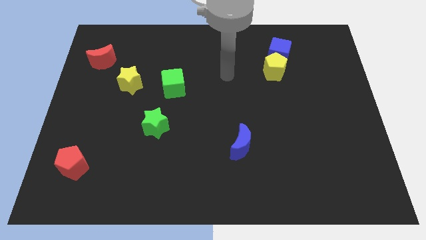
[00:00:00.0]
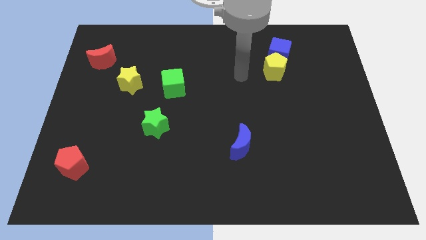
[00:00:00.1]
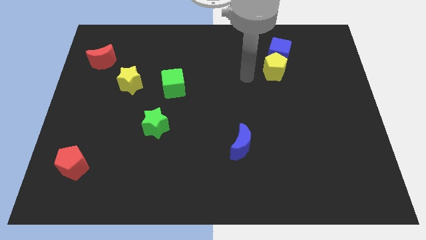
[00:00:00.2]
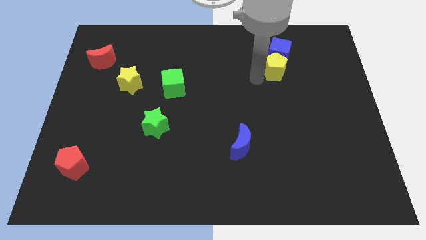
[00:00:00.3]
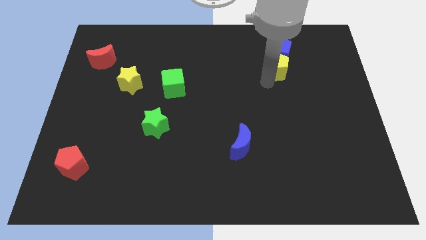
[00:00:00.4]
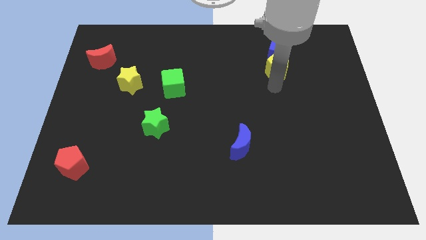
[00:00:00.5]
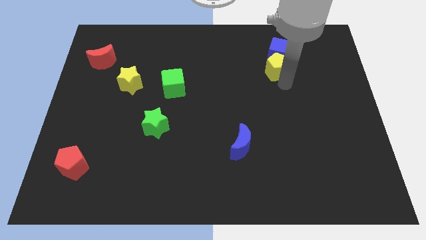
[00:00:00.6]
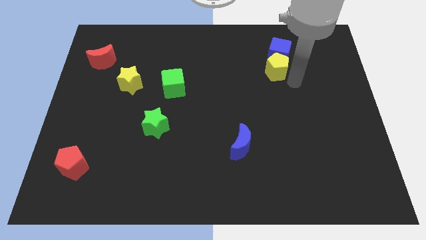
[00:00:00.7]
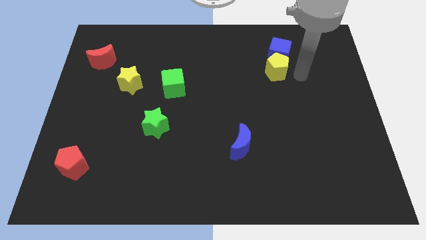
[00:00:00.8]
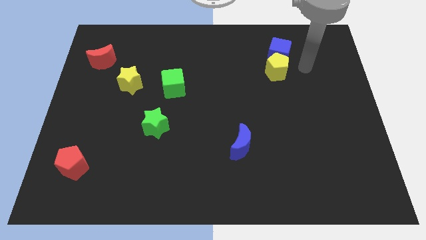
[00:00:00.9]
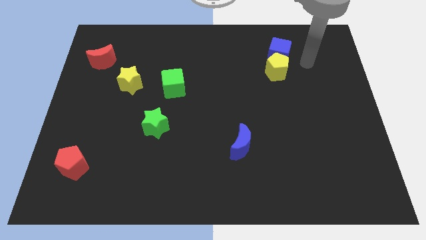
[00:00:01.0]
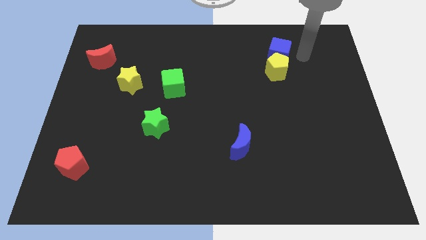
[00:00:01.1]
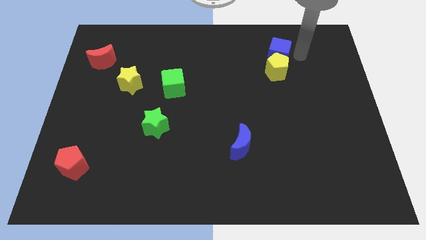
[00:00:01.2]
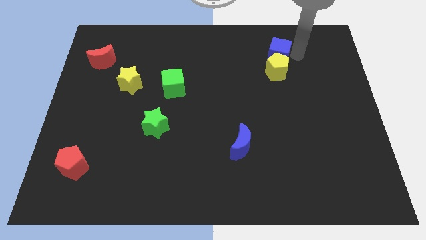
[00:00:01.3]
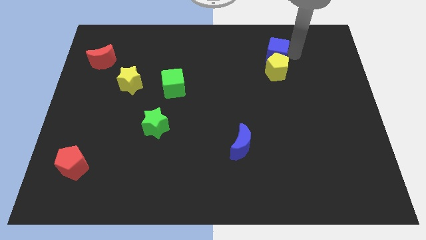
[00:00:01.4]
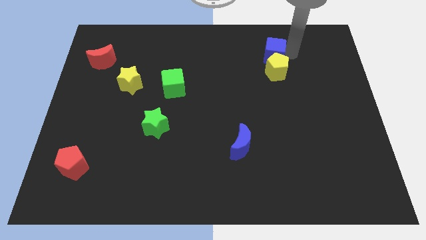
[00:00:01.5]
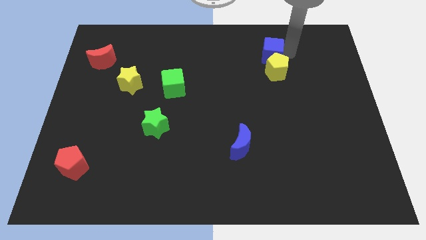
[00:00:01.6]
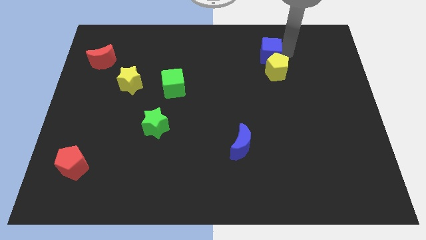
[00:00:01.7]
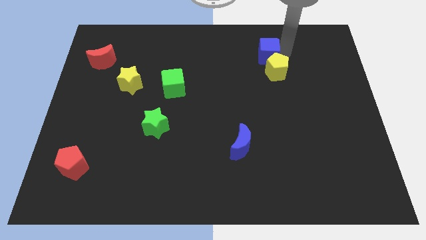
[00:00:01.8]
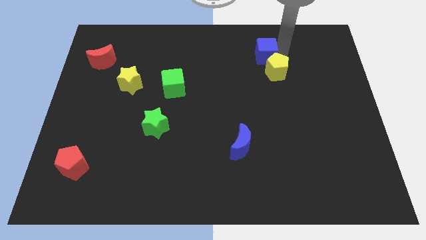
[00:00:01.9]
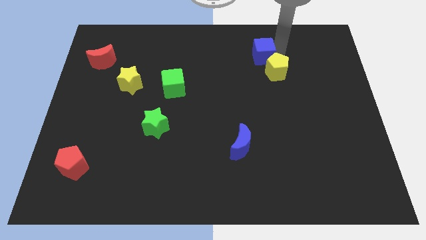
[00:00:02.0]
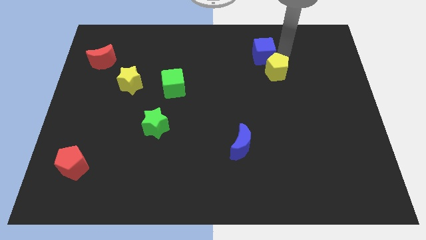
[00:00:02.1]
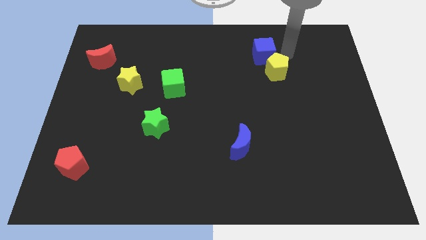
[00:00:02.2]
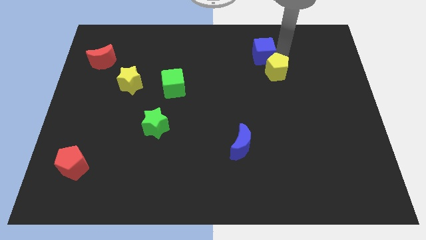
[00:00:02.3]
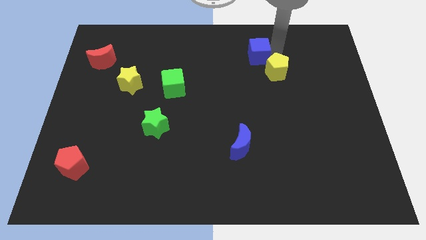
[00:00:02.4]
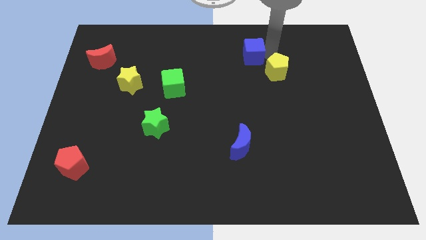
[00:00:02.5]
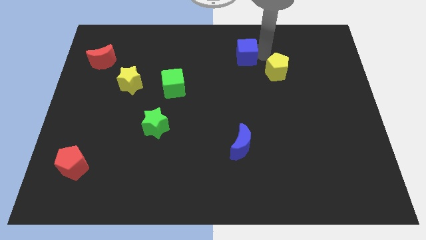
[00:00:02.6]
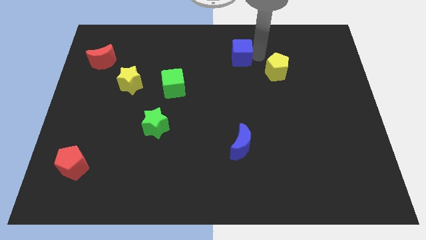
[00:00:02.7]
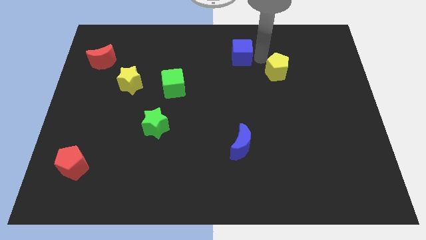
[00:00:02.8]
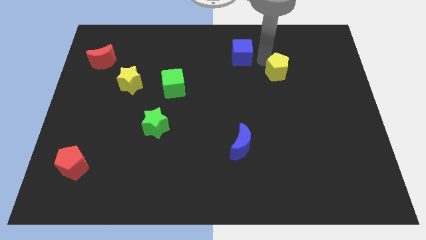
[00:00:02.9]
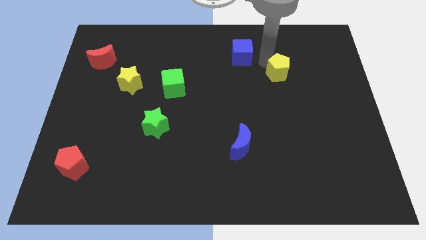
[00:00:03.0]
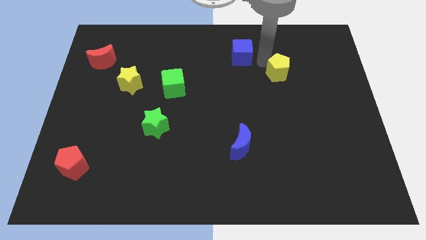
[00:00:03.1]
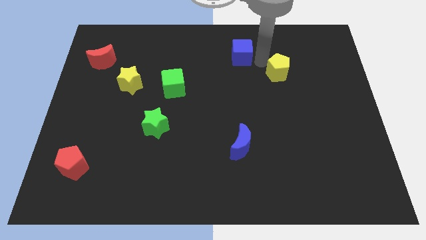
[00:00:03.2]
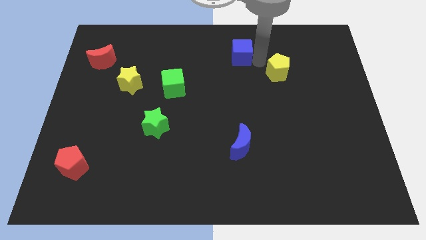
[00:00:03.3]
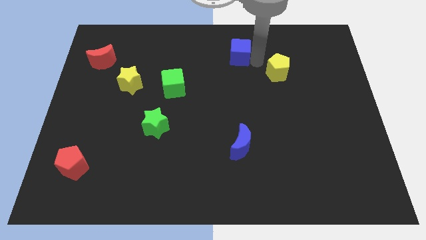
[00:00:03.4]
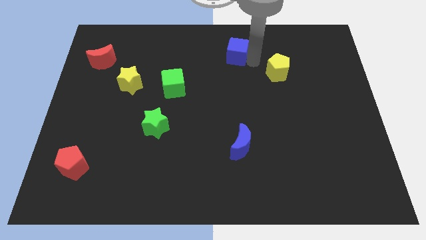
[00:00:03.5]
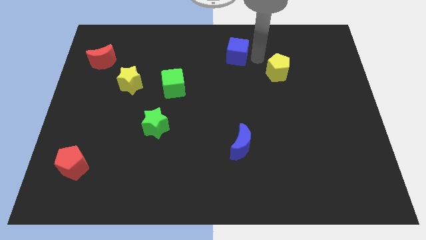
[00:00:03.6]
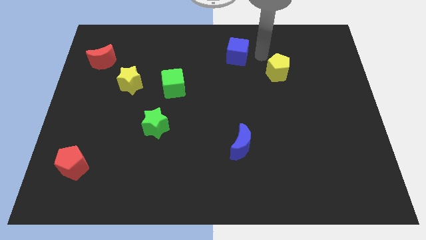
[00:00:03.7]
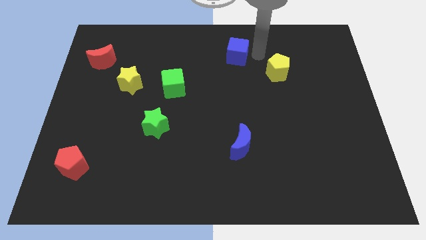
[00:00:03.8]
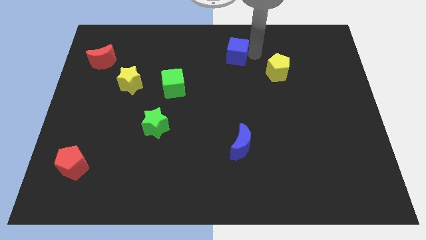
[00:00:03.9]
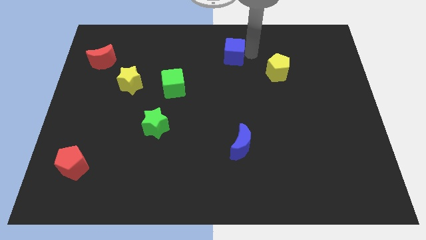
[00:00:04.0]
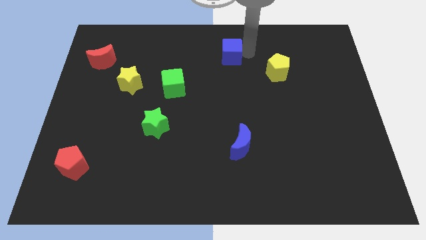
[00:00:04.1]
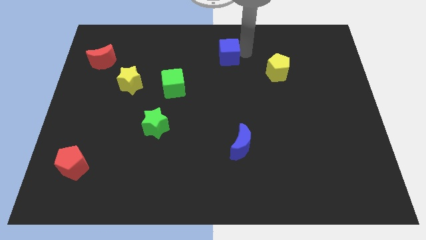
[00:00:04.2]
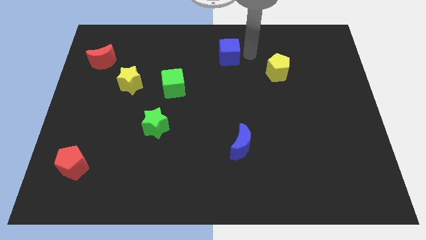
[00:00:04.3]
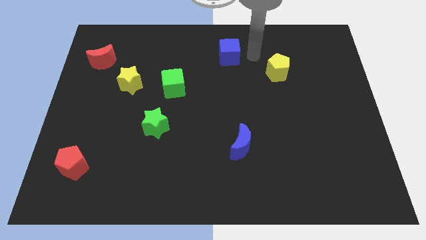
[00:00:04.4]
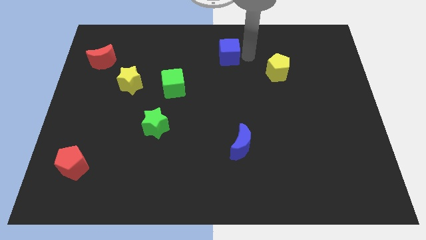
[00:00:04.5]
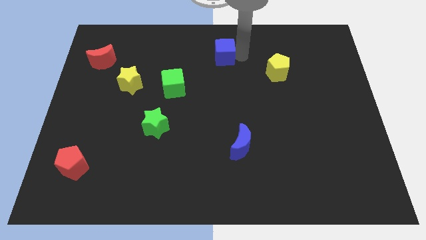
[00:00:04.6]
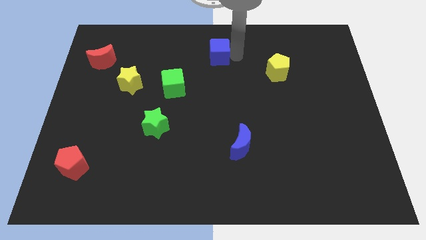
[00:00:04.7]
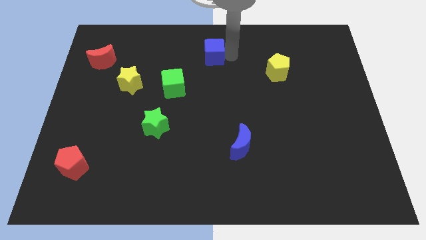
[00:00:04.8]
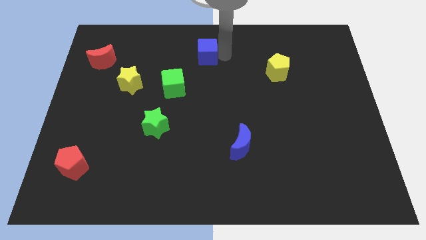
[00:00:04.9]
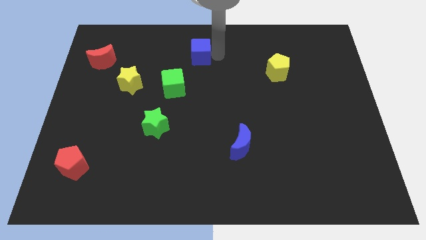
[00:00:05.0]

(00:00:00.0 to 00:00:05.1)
push the blue cube left

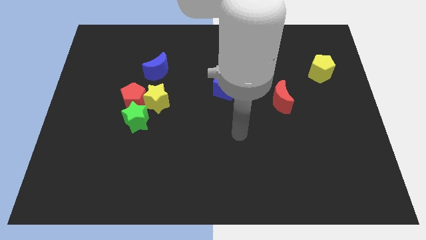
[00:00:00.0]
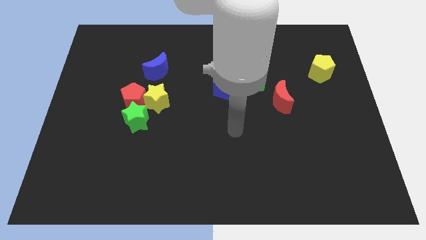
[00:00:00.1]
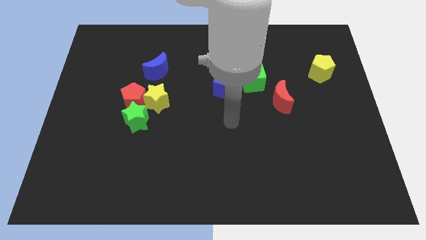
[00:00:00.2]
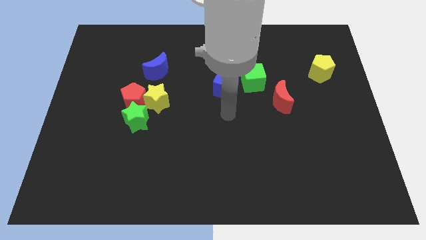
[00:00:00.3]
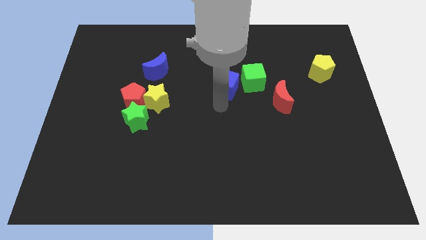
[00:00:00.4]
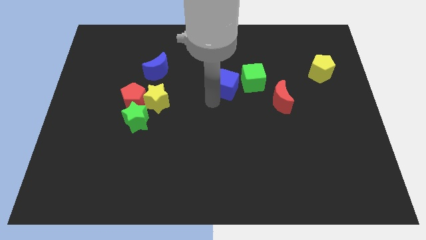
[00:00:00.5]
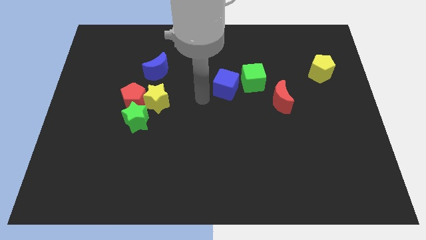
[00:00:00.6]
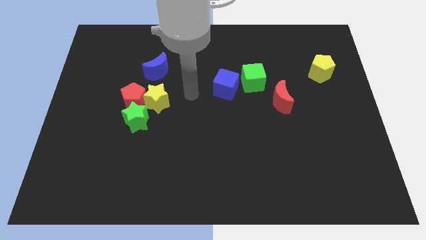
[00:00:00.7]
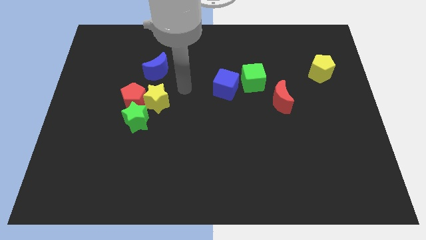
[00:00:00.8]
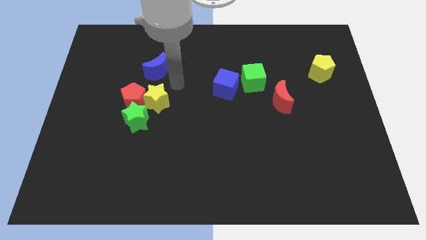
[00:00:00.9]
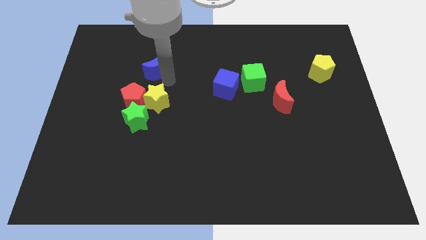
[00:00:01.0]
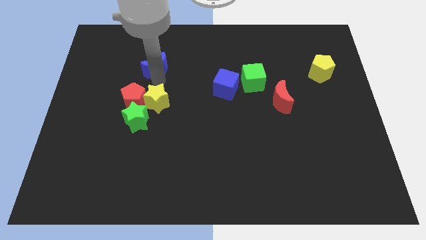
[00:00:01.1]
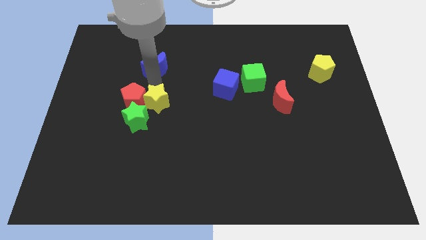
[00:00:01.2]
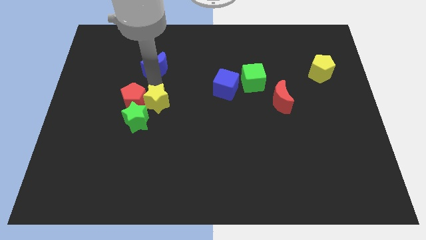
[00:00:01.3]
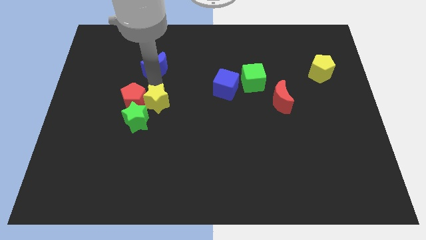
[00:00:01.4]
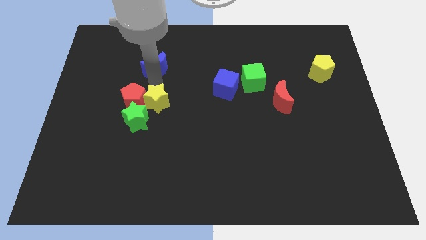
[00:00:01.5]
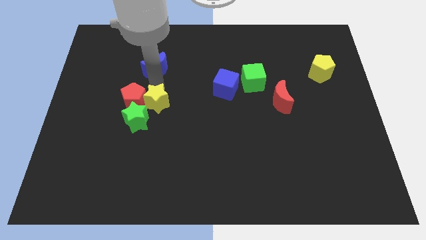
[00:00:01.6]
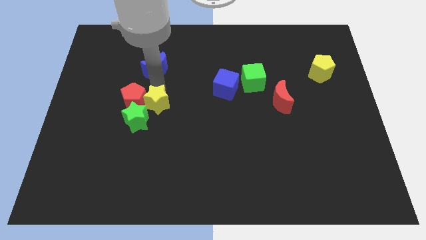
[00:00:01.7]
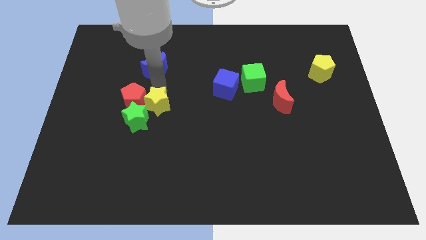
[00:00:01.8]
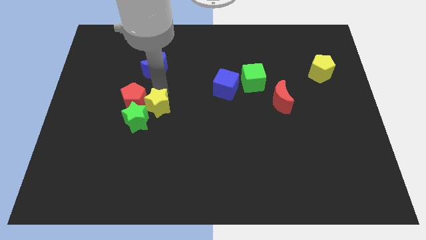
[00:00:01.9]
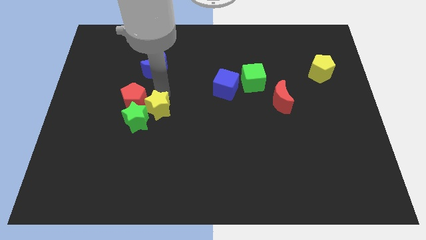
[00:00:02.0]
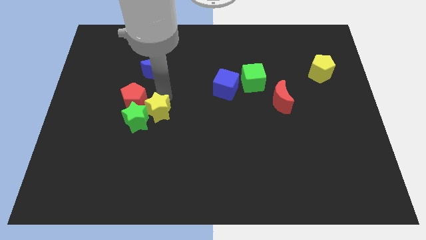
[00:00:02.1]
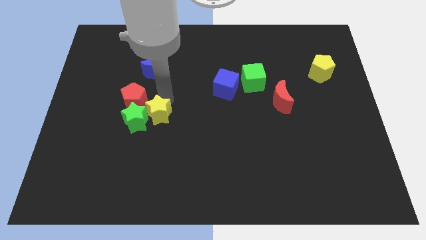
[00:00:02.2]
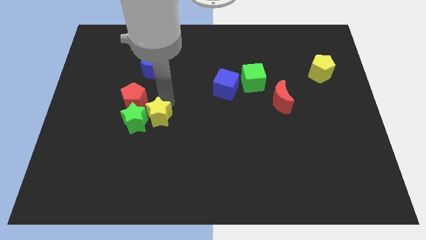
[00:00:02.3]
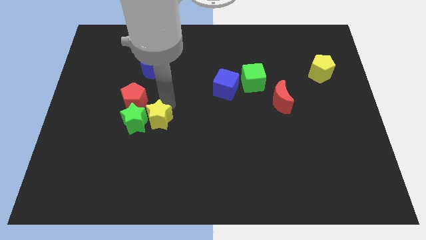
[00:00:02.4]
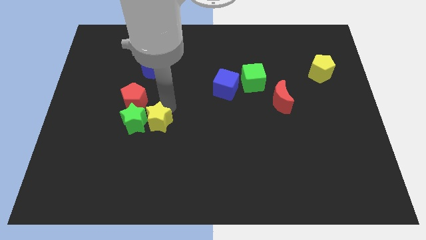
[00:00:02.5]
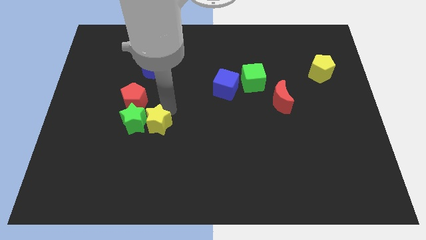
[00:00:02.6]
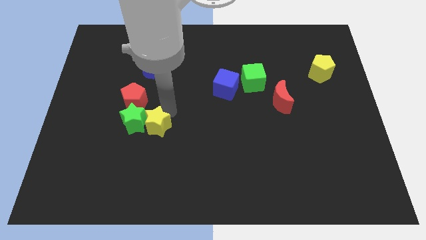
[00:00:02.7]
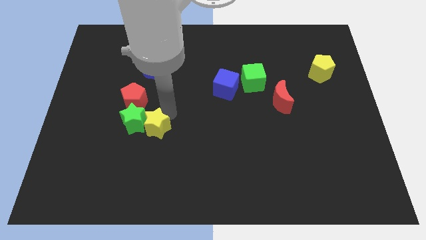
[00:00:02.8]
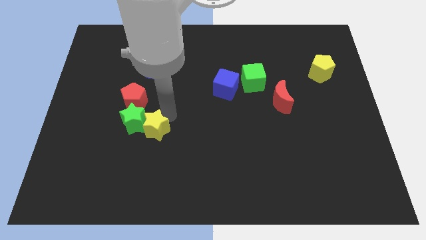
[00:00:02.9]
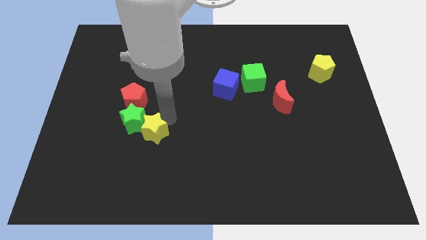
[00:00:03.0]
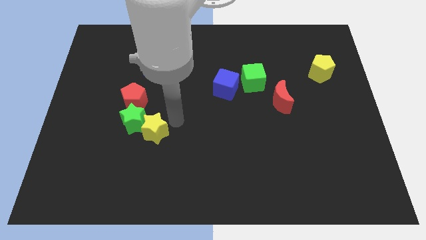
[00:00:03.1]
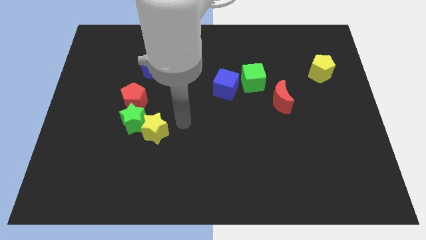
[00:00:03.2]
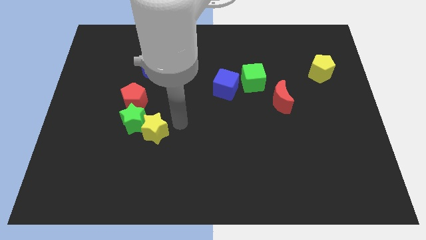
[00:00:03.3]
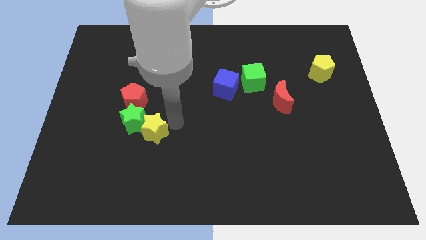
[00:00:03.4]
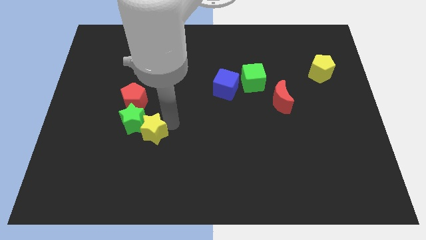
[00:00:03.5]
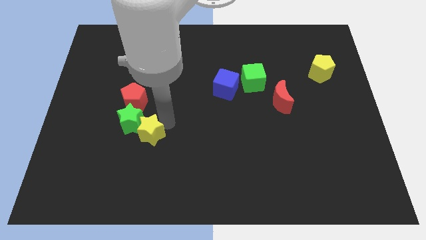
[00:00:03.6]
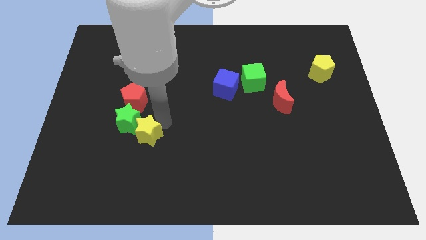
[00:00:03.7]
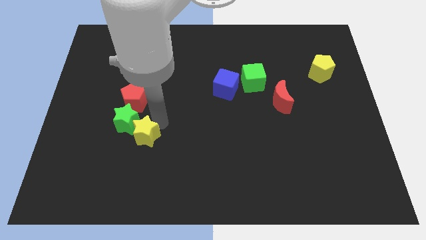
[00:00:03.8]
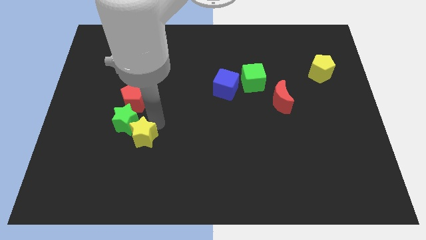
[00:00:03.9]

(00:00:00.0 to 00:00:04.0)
slightly push the yellow star down and to the left
